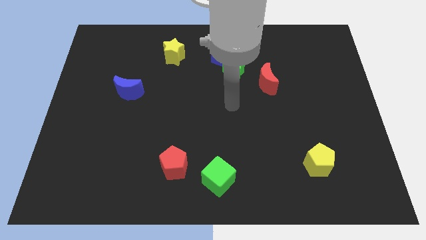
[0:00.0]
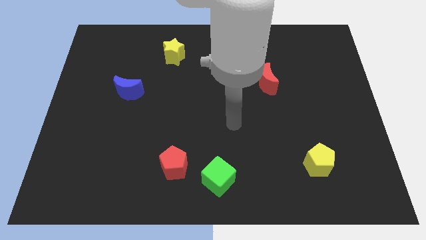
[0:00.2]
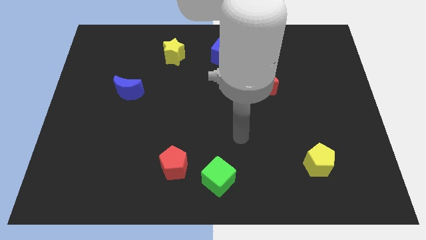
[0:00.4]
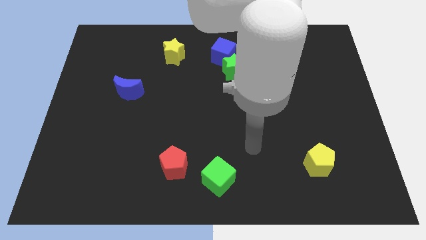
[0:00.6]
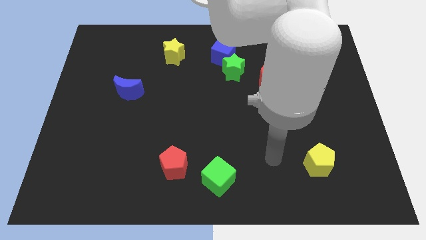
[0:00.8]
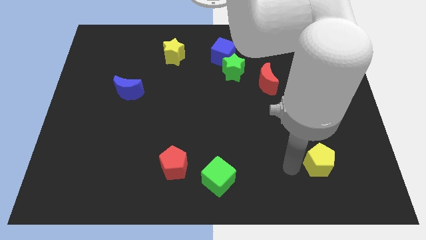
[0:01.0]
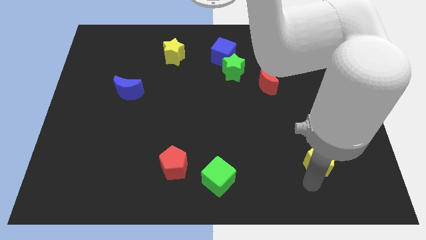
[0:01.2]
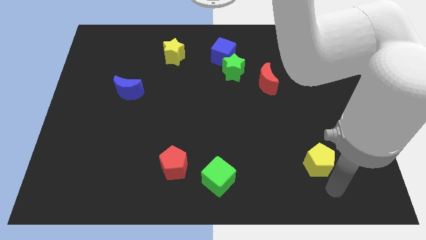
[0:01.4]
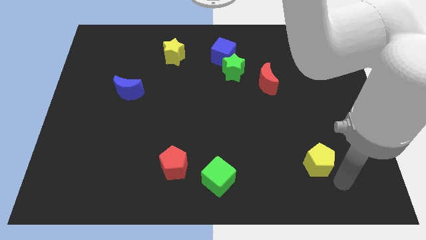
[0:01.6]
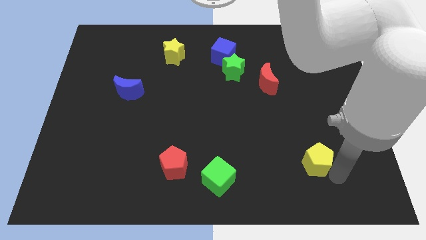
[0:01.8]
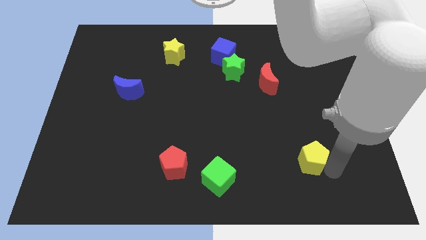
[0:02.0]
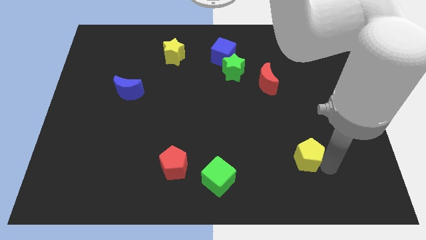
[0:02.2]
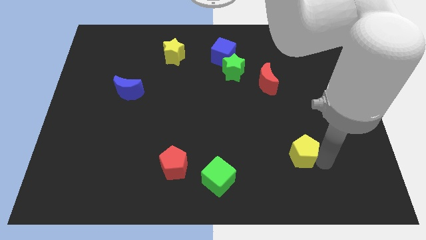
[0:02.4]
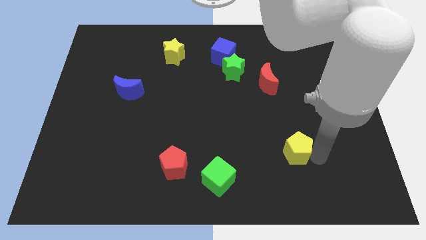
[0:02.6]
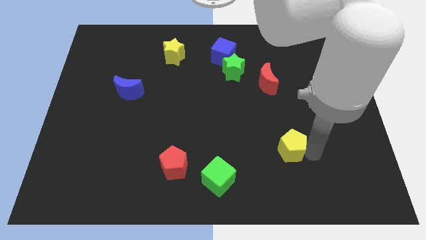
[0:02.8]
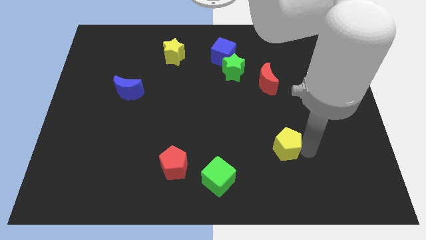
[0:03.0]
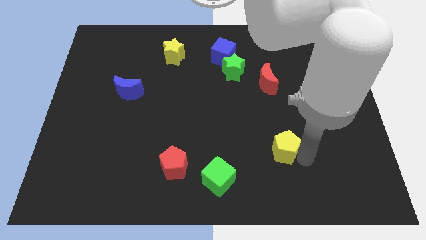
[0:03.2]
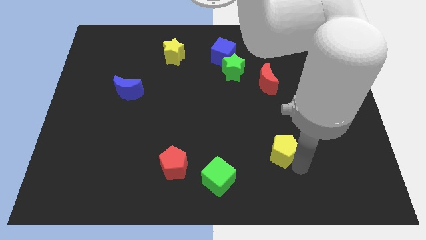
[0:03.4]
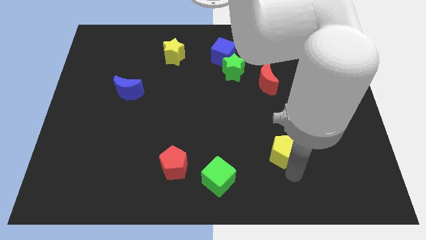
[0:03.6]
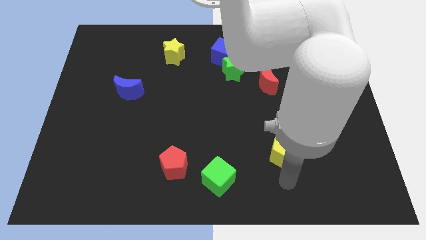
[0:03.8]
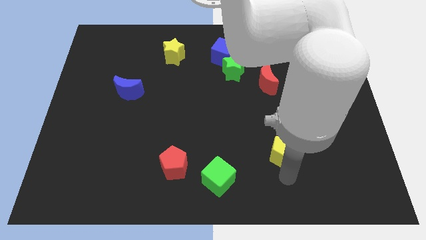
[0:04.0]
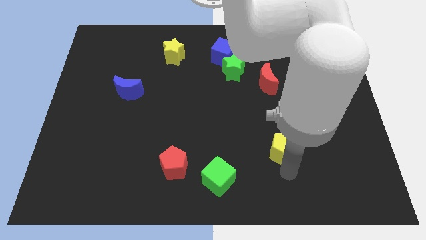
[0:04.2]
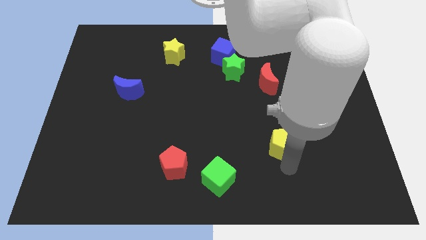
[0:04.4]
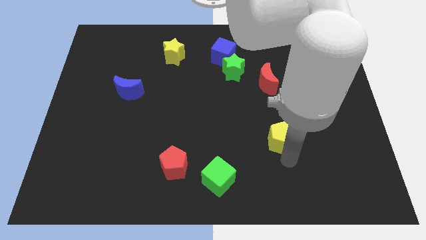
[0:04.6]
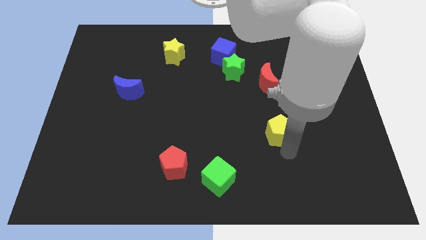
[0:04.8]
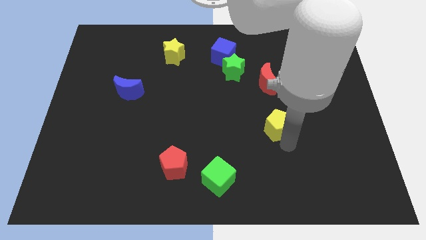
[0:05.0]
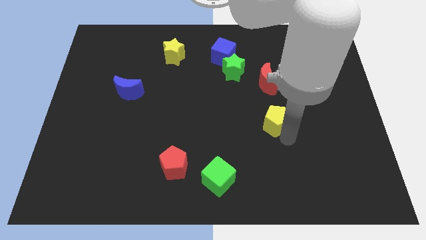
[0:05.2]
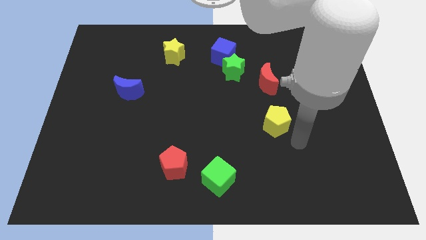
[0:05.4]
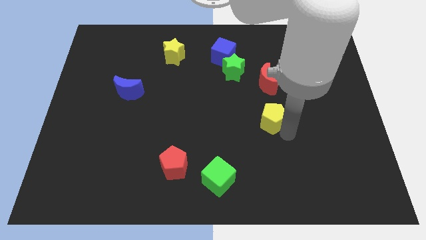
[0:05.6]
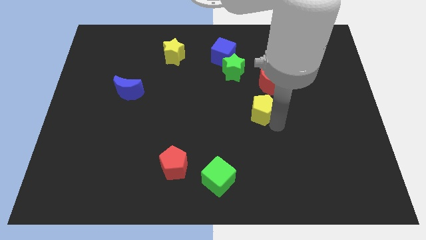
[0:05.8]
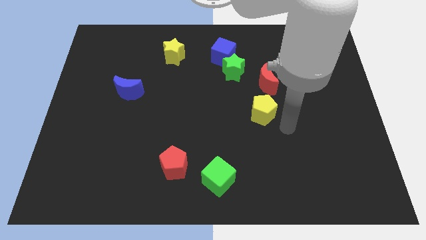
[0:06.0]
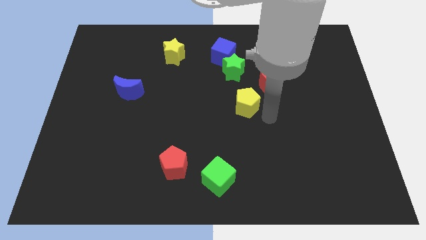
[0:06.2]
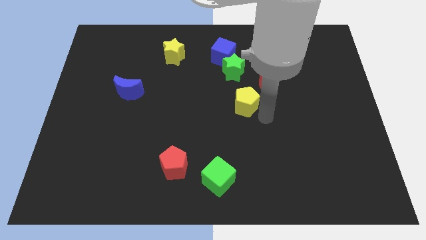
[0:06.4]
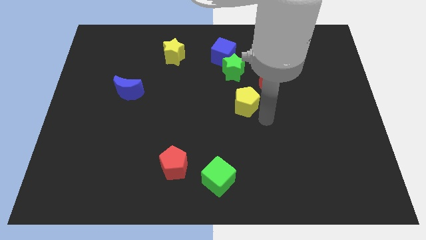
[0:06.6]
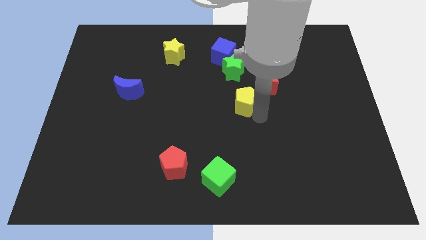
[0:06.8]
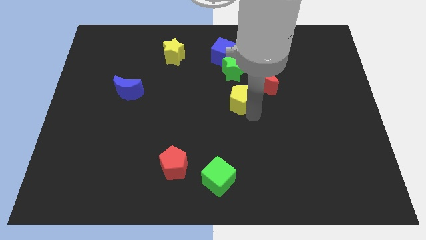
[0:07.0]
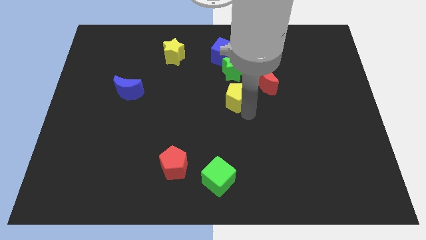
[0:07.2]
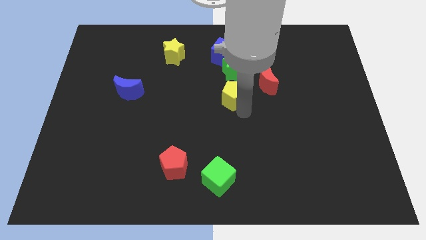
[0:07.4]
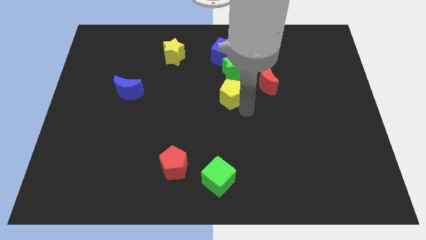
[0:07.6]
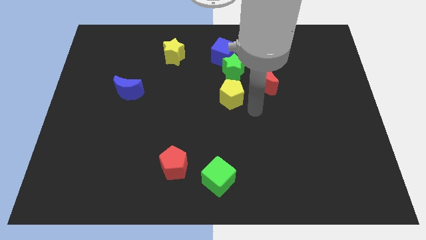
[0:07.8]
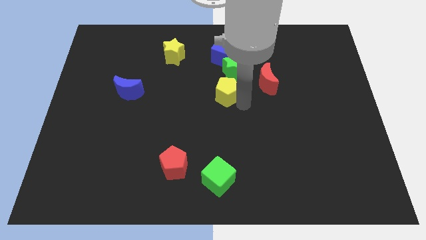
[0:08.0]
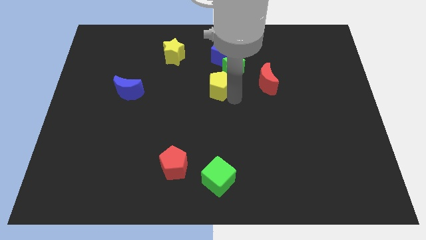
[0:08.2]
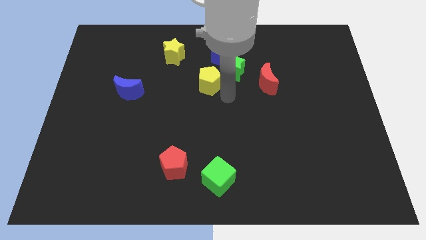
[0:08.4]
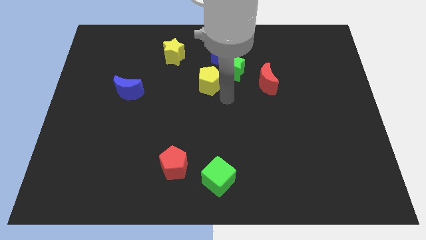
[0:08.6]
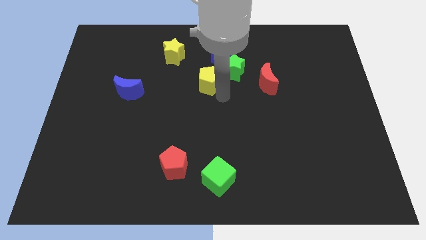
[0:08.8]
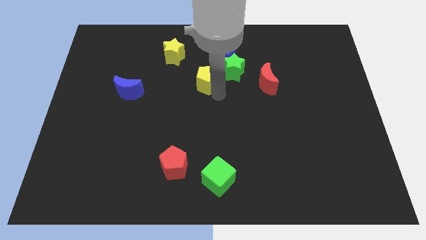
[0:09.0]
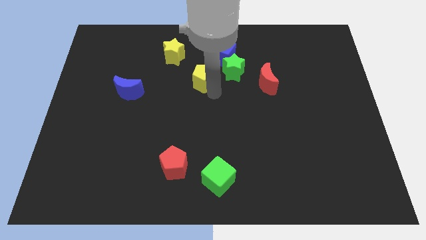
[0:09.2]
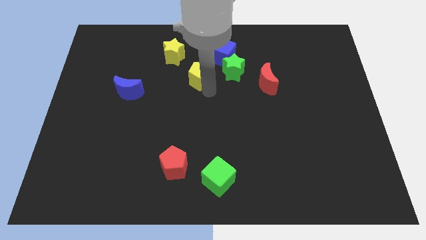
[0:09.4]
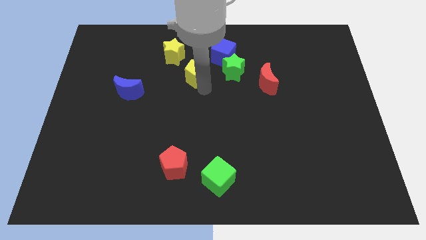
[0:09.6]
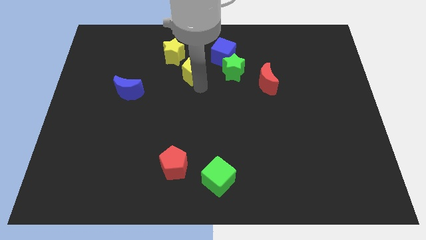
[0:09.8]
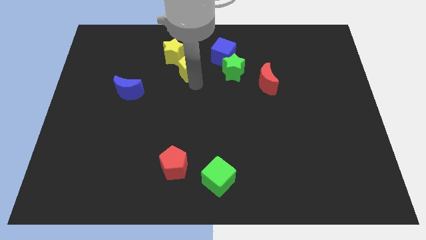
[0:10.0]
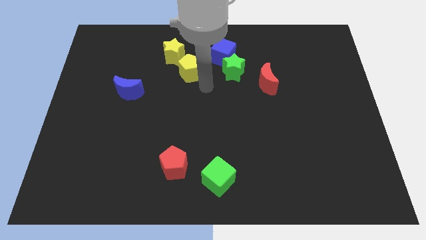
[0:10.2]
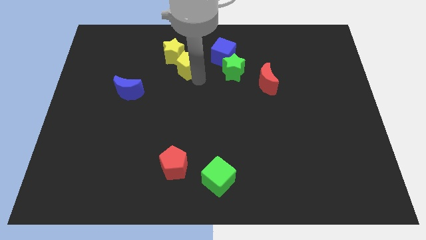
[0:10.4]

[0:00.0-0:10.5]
put the yellow pentagon to the yellow star

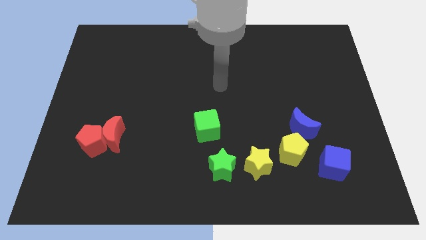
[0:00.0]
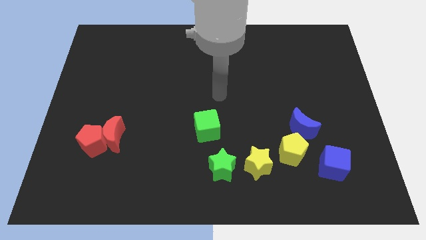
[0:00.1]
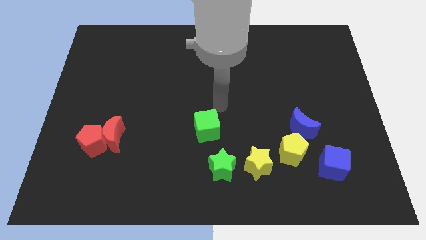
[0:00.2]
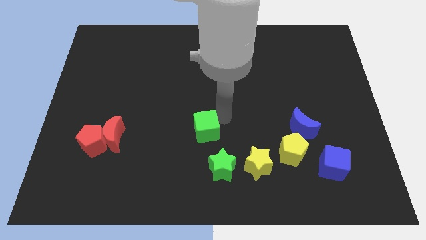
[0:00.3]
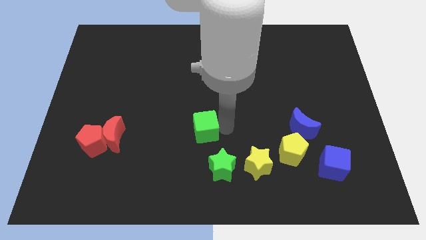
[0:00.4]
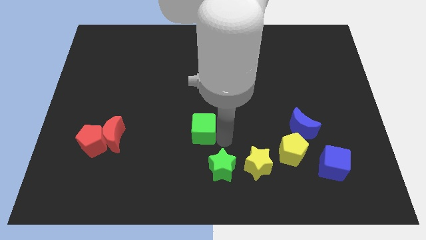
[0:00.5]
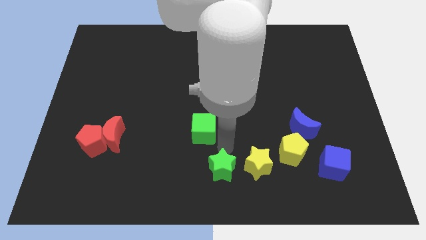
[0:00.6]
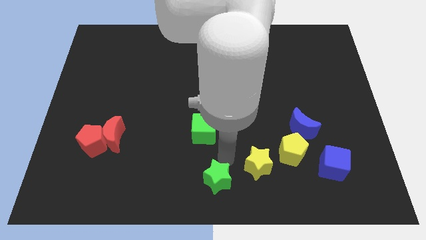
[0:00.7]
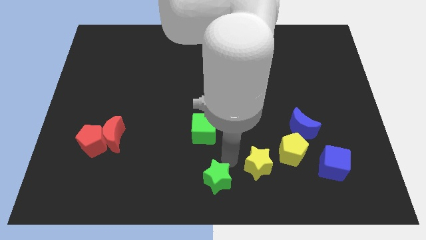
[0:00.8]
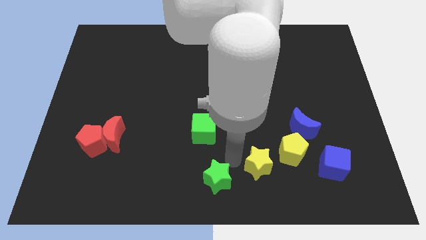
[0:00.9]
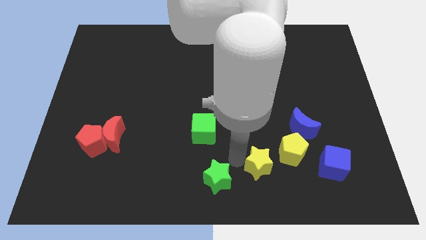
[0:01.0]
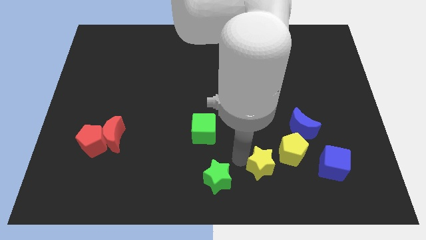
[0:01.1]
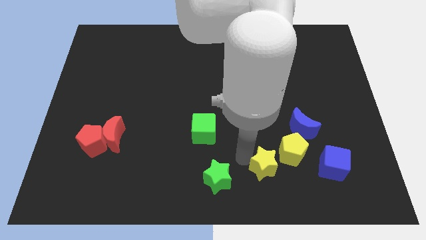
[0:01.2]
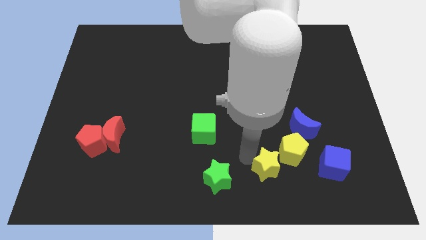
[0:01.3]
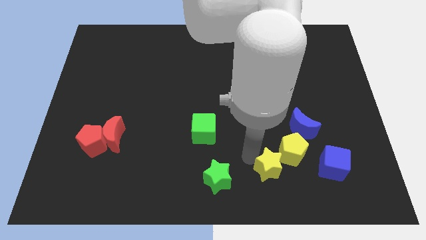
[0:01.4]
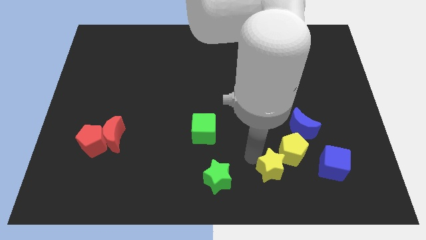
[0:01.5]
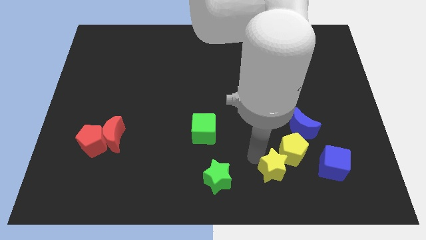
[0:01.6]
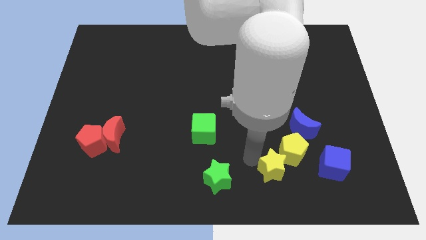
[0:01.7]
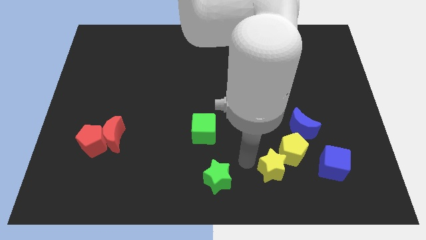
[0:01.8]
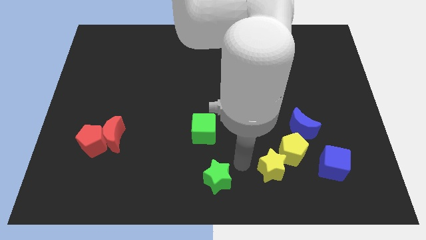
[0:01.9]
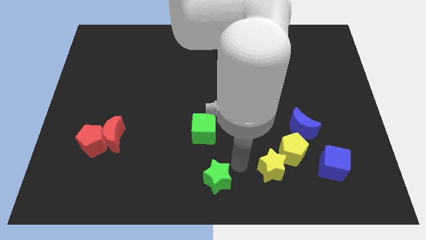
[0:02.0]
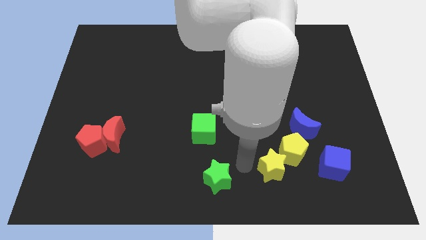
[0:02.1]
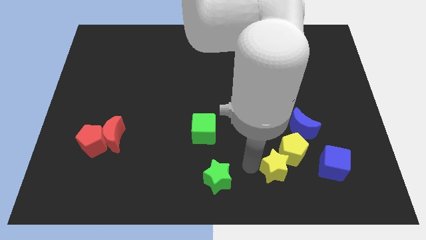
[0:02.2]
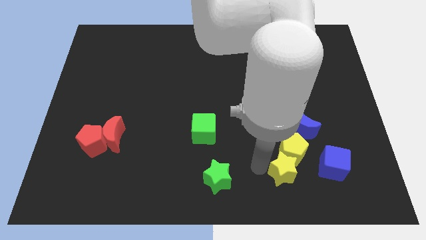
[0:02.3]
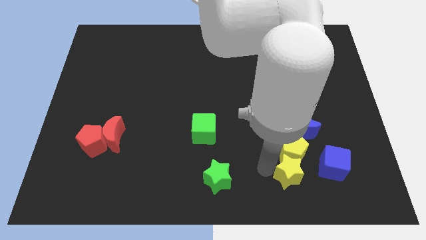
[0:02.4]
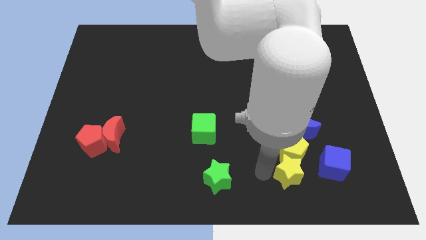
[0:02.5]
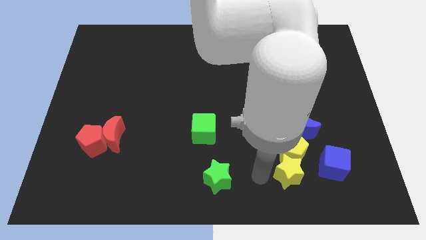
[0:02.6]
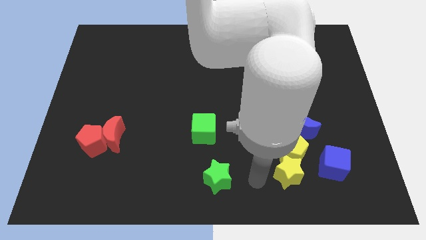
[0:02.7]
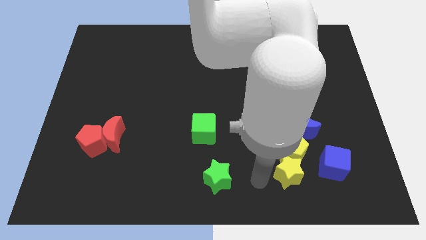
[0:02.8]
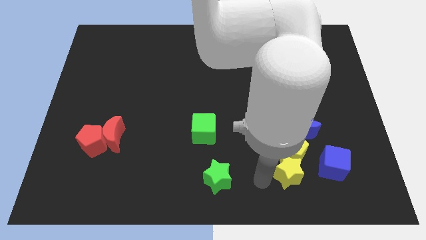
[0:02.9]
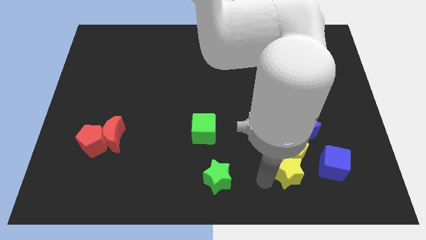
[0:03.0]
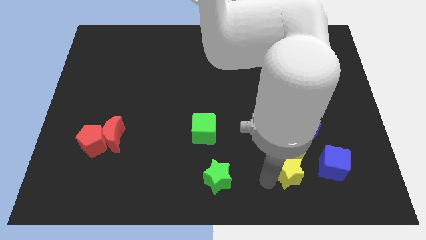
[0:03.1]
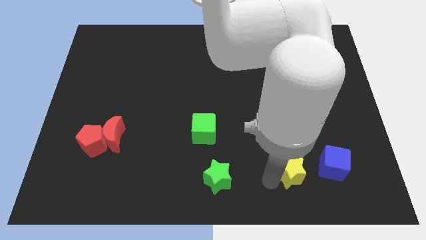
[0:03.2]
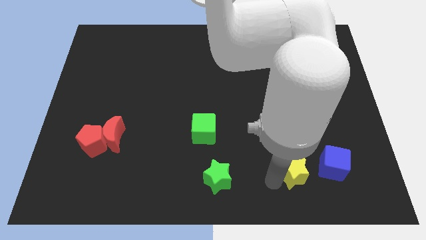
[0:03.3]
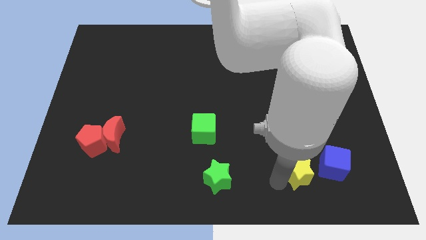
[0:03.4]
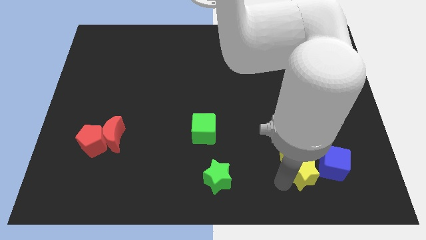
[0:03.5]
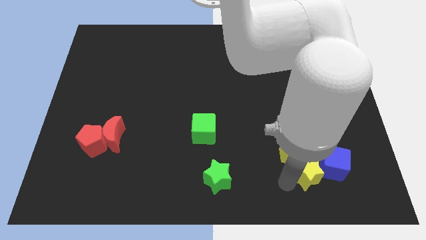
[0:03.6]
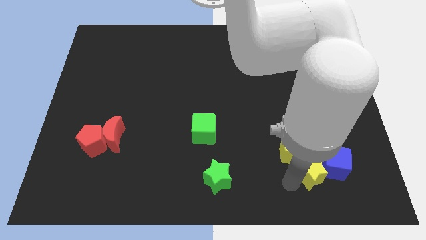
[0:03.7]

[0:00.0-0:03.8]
slide the yellow star close to the blue cube
